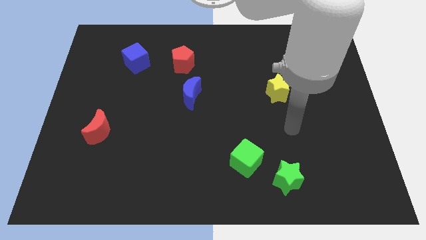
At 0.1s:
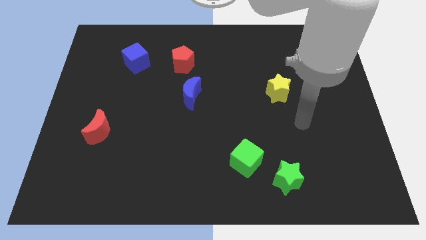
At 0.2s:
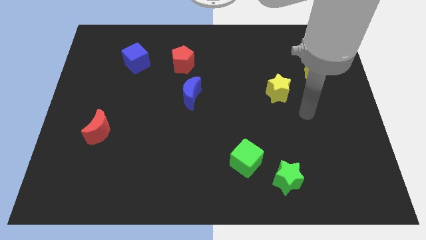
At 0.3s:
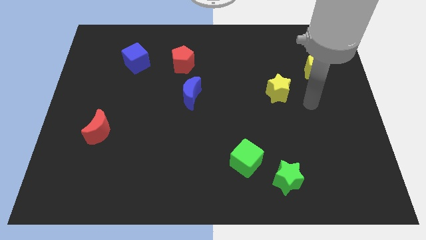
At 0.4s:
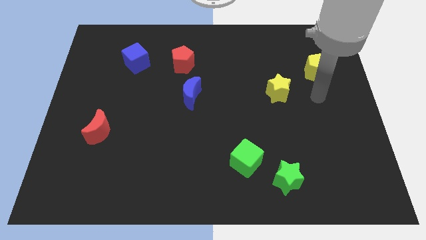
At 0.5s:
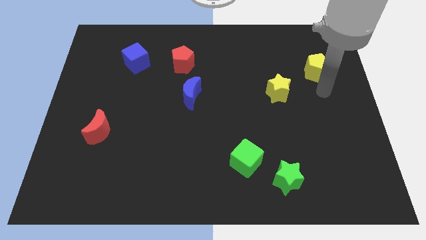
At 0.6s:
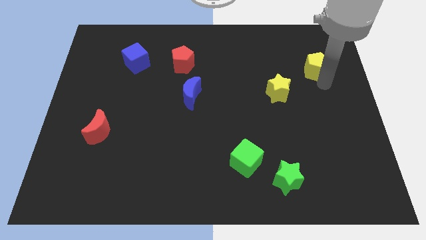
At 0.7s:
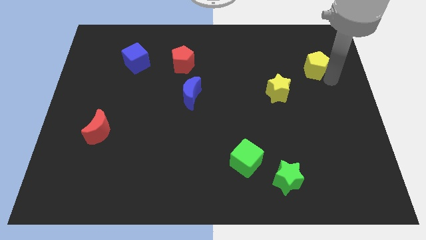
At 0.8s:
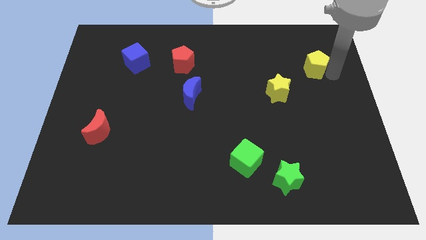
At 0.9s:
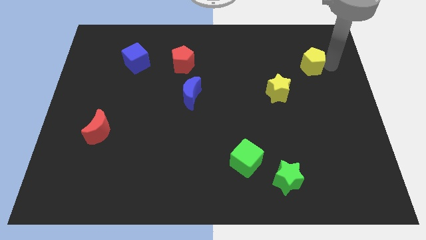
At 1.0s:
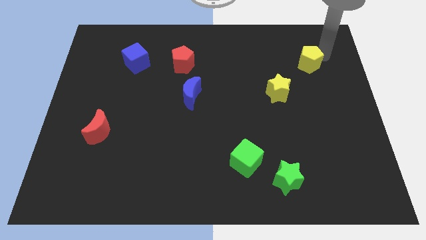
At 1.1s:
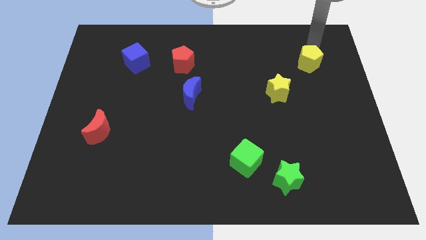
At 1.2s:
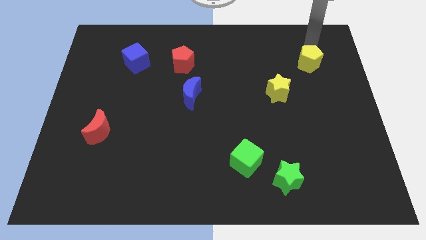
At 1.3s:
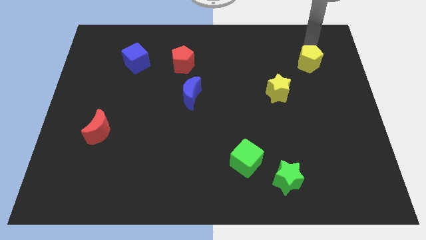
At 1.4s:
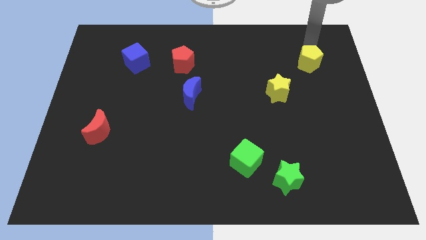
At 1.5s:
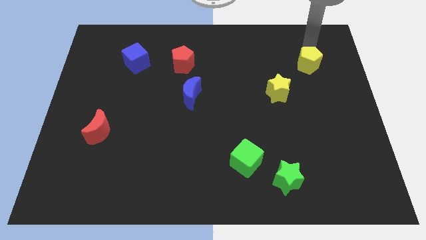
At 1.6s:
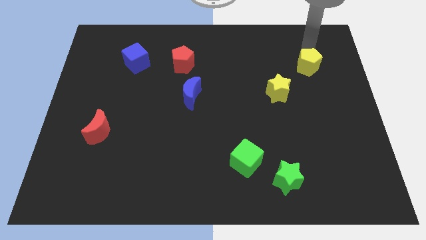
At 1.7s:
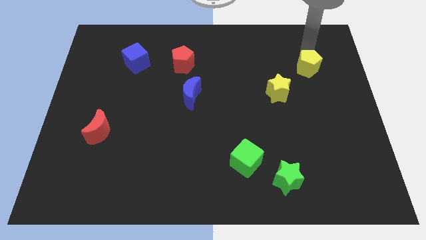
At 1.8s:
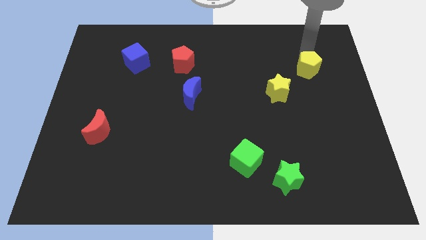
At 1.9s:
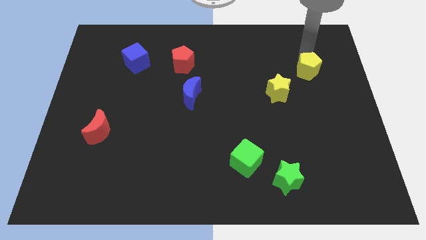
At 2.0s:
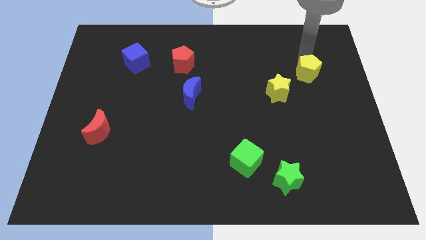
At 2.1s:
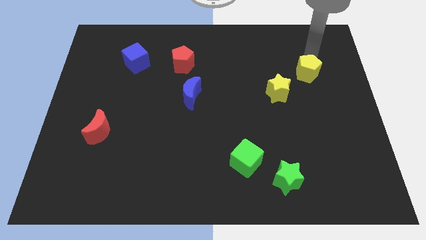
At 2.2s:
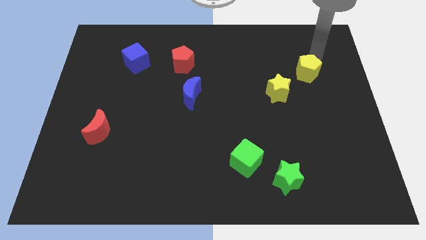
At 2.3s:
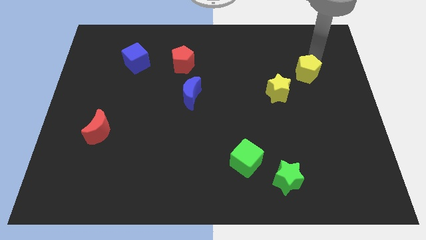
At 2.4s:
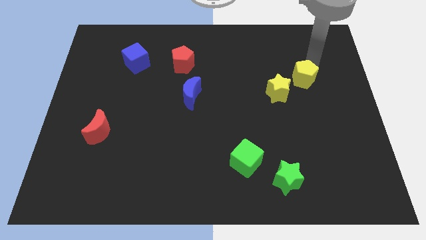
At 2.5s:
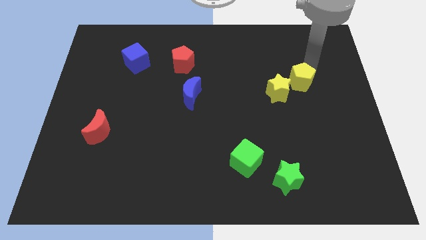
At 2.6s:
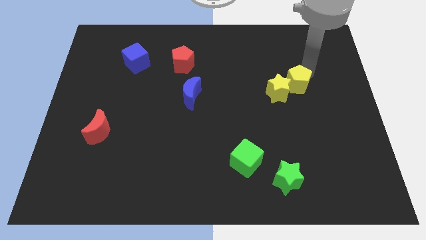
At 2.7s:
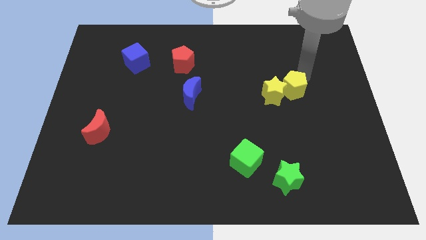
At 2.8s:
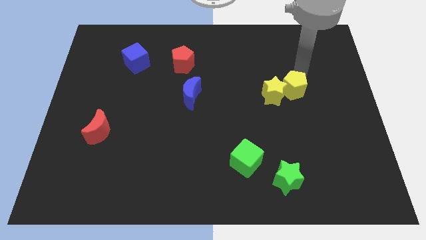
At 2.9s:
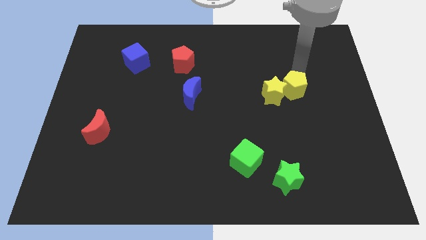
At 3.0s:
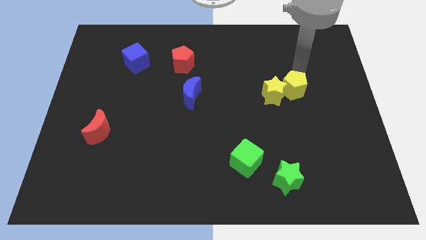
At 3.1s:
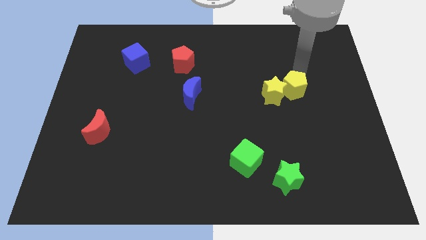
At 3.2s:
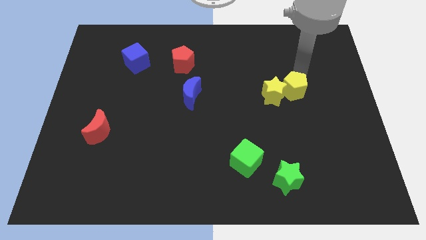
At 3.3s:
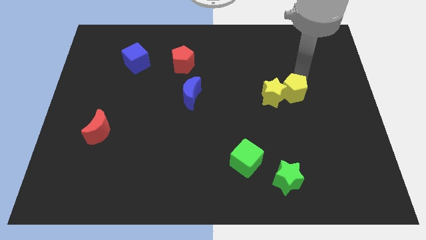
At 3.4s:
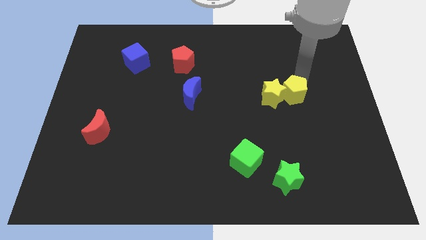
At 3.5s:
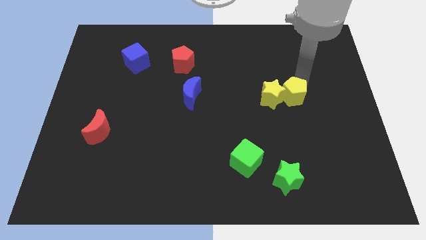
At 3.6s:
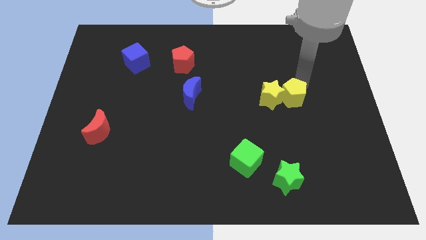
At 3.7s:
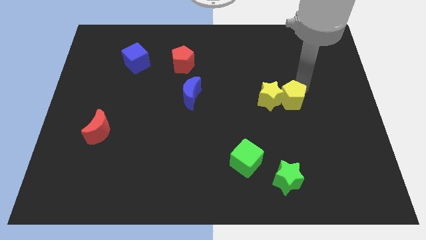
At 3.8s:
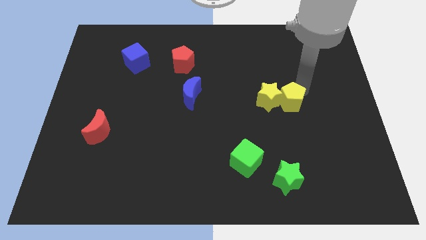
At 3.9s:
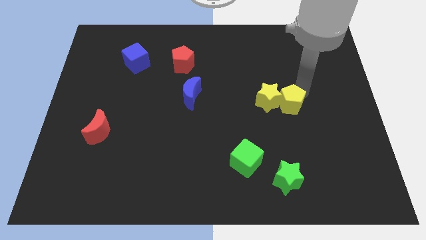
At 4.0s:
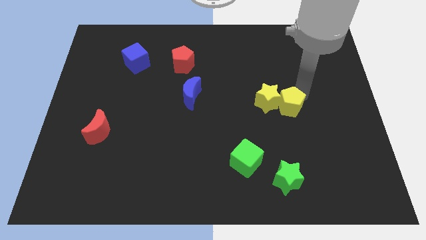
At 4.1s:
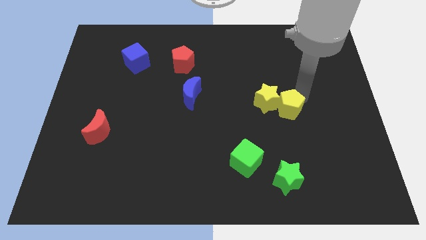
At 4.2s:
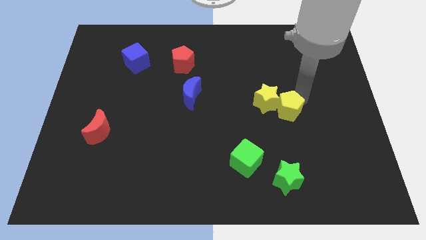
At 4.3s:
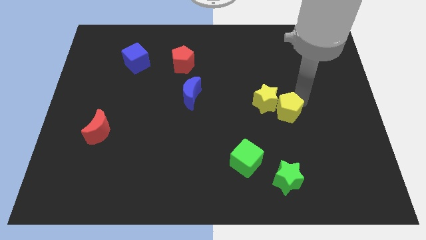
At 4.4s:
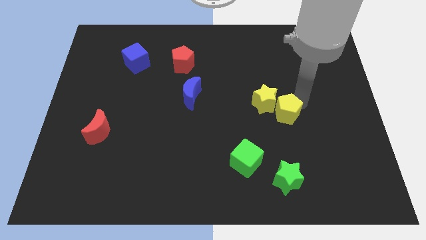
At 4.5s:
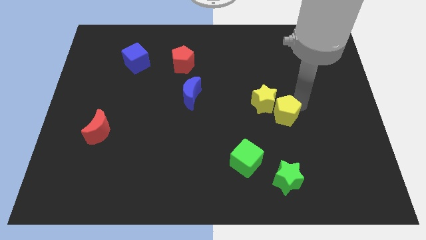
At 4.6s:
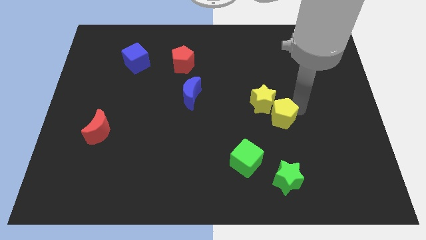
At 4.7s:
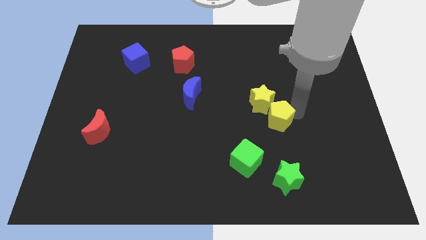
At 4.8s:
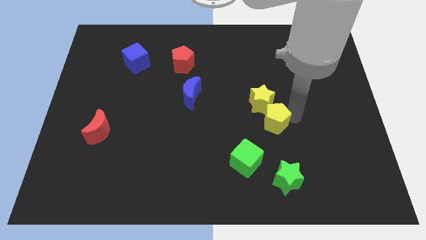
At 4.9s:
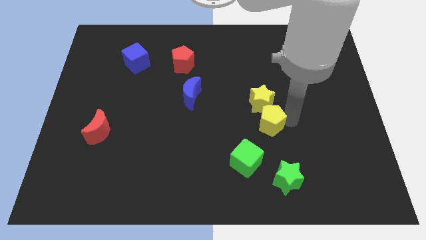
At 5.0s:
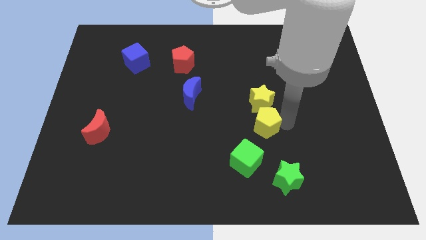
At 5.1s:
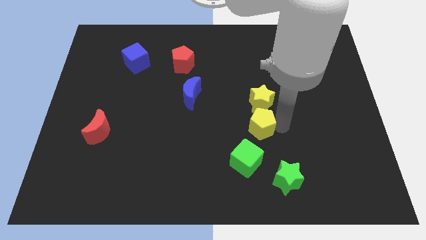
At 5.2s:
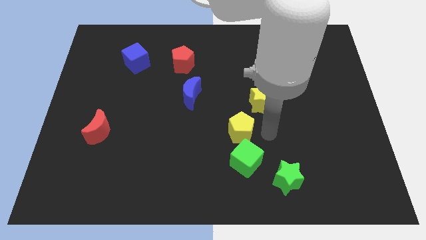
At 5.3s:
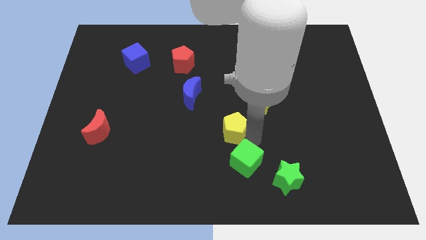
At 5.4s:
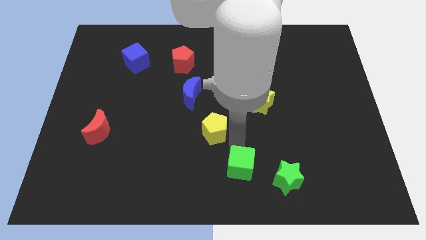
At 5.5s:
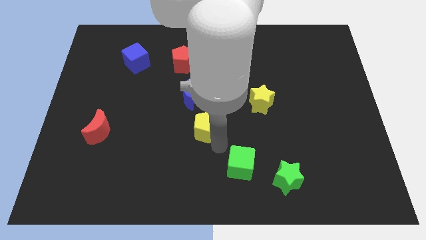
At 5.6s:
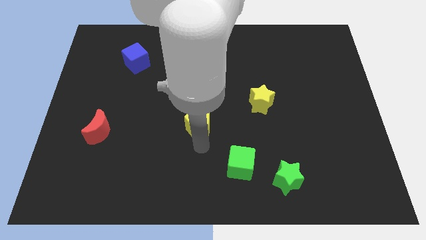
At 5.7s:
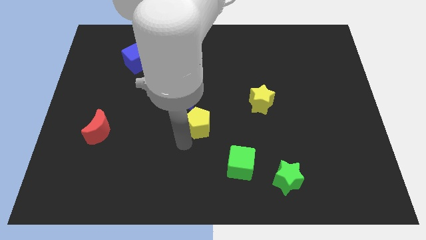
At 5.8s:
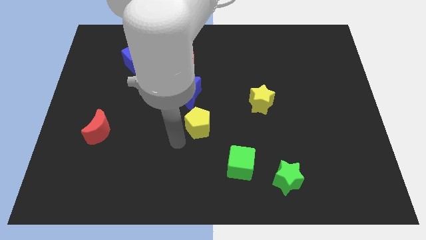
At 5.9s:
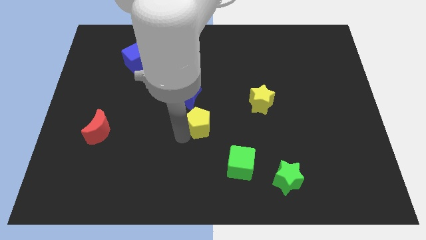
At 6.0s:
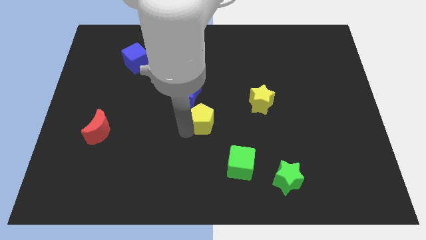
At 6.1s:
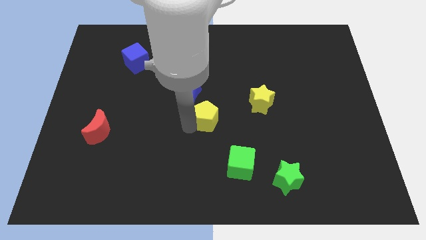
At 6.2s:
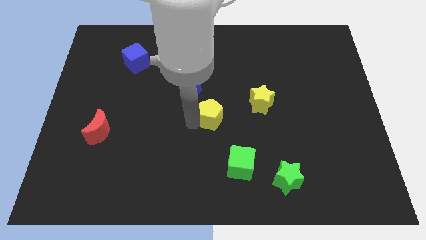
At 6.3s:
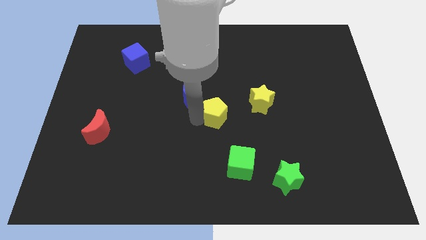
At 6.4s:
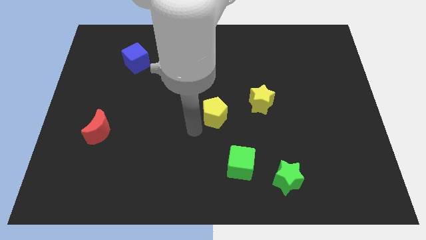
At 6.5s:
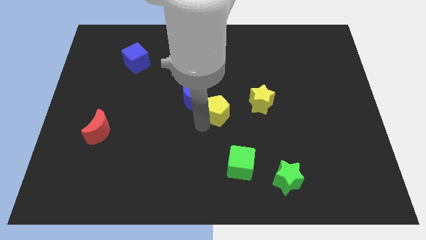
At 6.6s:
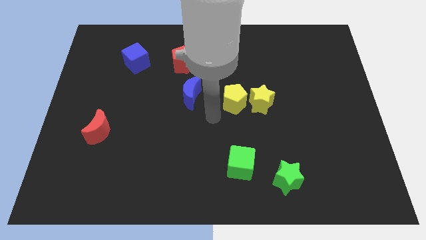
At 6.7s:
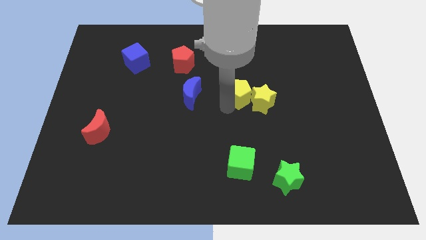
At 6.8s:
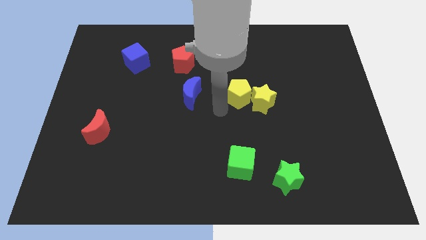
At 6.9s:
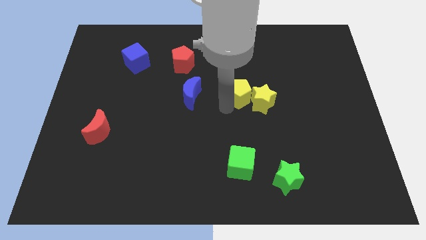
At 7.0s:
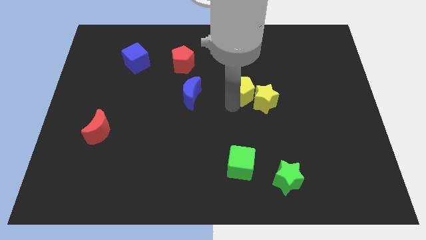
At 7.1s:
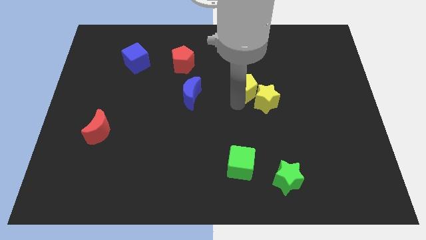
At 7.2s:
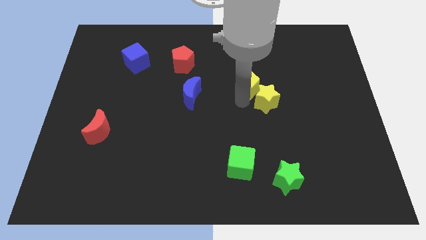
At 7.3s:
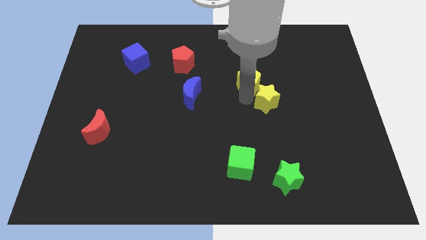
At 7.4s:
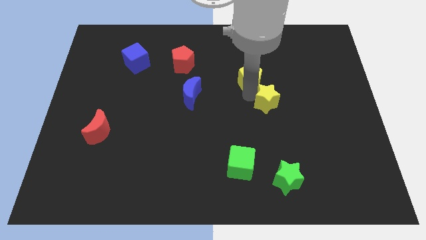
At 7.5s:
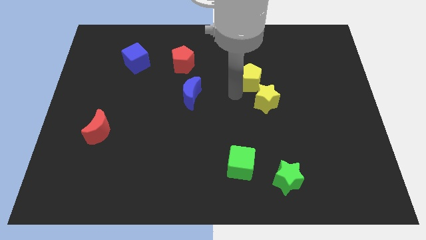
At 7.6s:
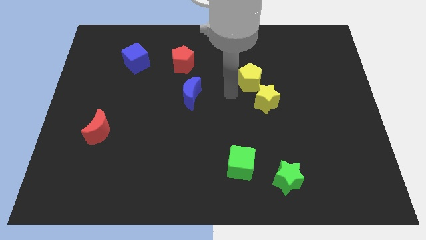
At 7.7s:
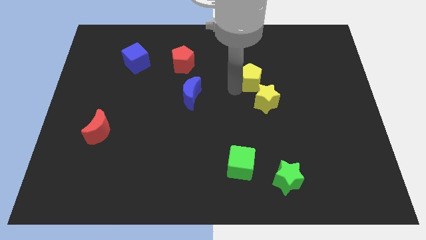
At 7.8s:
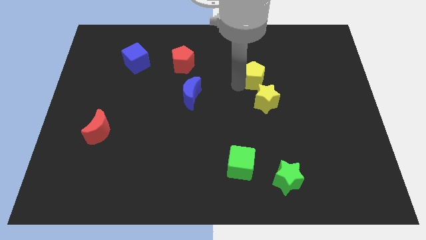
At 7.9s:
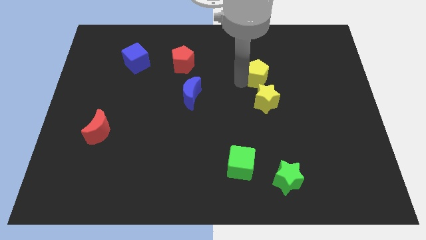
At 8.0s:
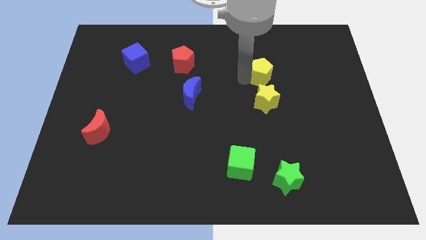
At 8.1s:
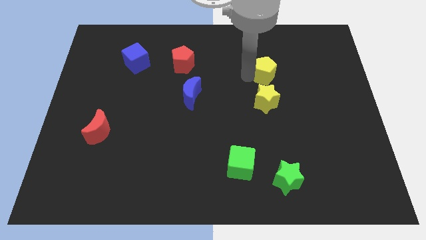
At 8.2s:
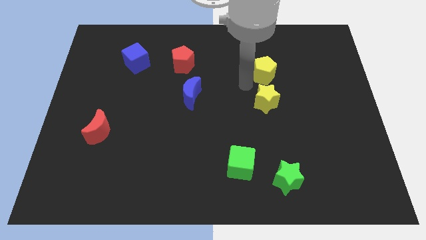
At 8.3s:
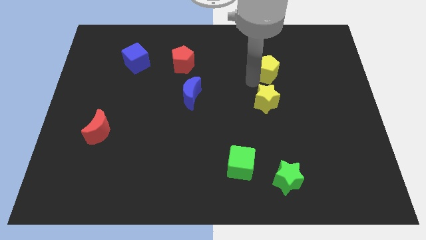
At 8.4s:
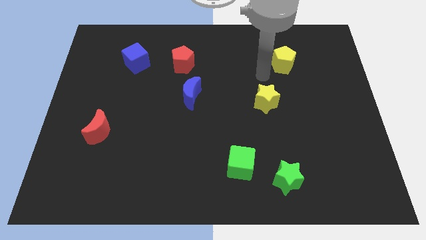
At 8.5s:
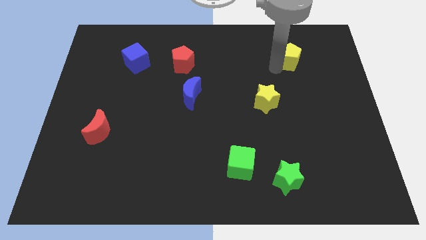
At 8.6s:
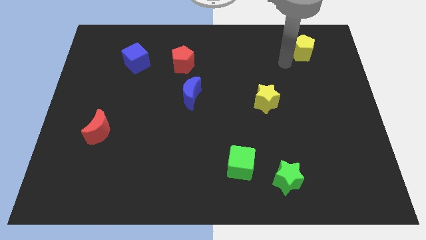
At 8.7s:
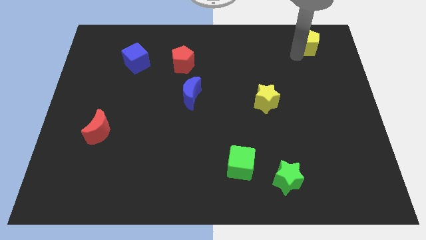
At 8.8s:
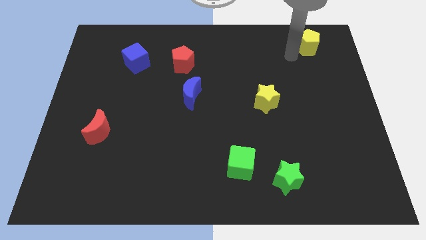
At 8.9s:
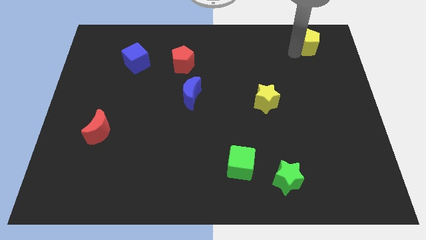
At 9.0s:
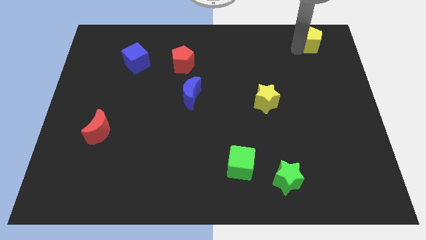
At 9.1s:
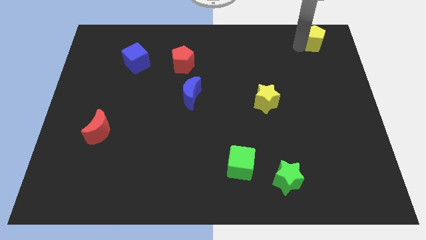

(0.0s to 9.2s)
move the yellow pentagon to the top right corner
